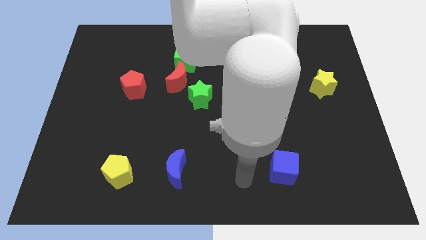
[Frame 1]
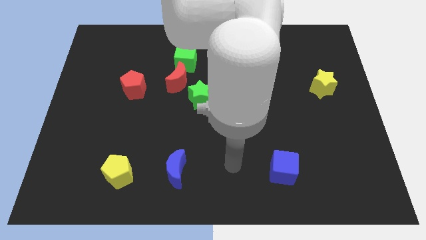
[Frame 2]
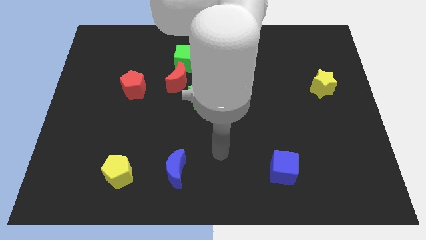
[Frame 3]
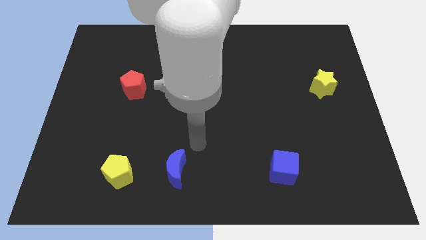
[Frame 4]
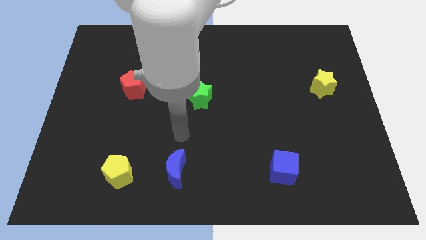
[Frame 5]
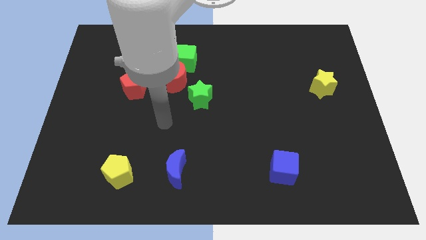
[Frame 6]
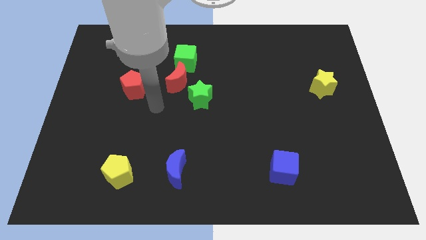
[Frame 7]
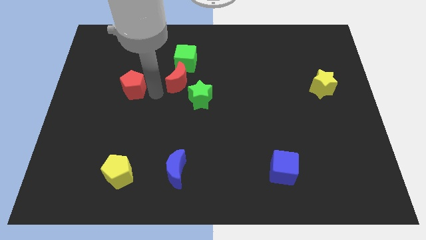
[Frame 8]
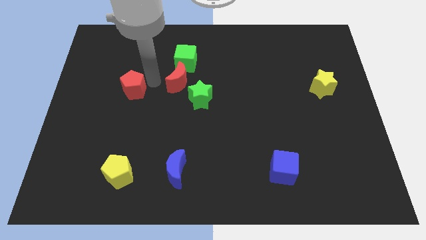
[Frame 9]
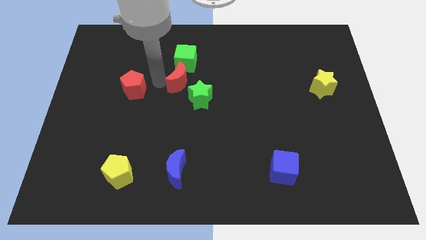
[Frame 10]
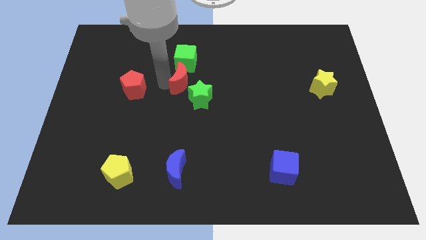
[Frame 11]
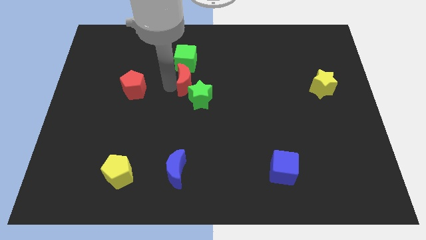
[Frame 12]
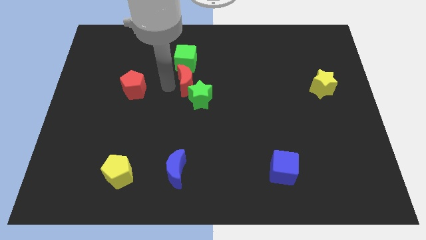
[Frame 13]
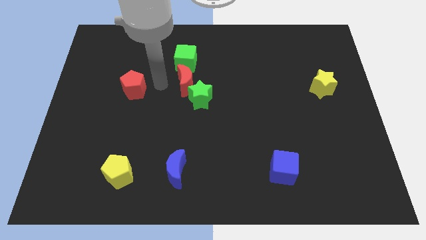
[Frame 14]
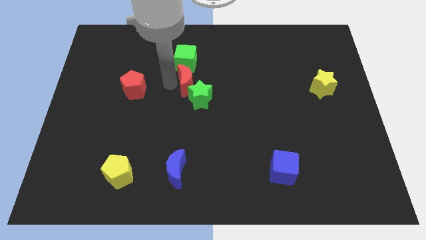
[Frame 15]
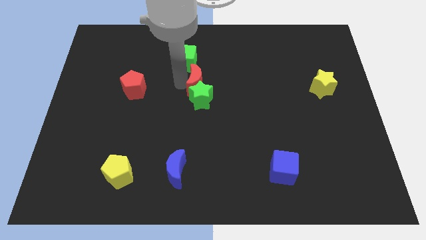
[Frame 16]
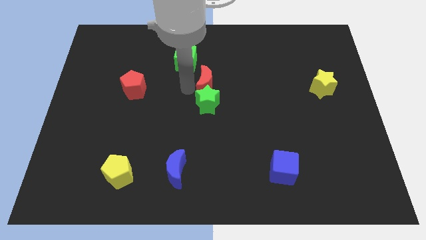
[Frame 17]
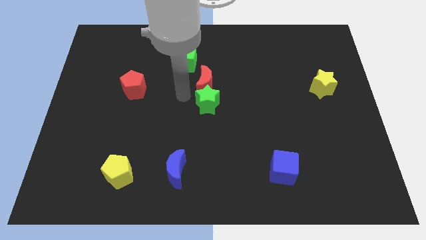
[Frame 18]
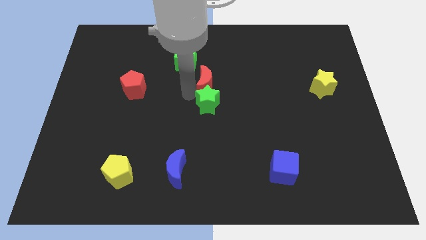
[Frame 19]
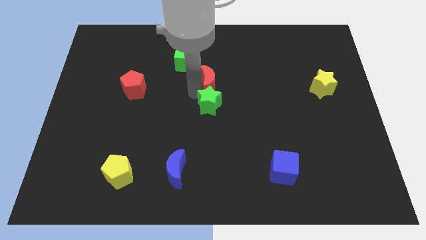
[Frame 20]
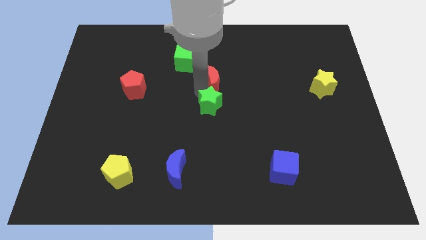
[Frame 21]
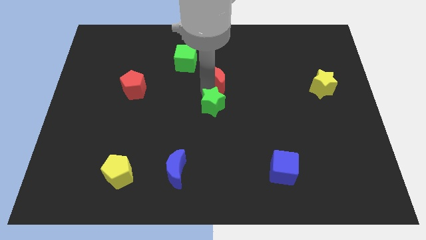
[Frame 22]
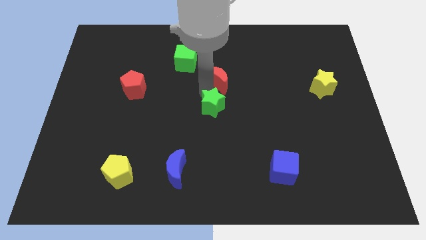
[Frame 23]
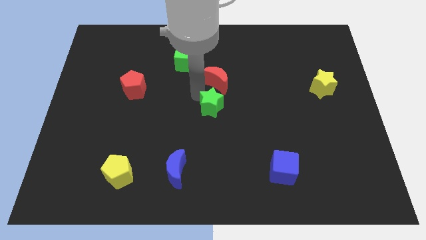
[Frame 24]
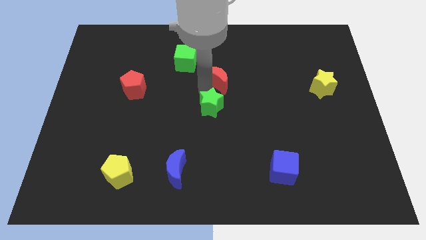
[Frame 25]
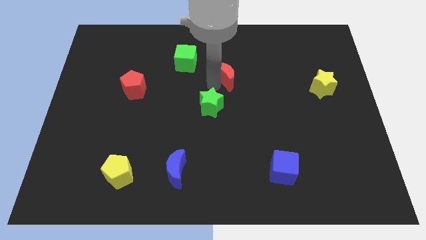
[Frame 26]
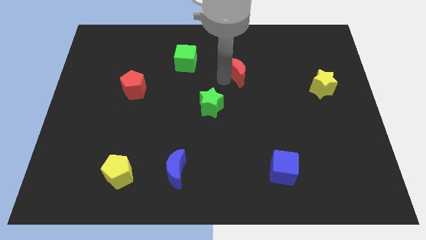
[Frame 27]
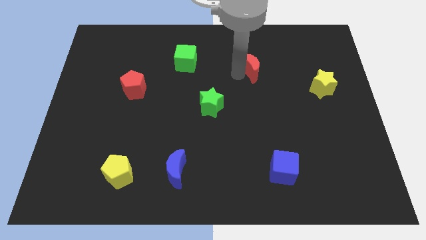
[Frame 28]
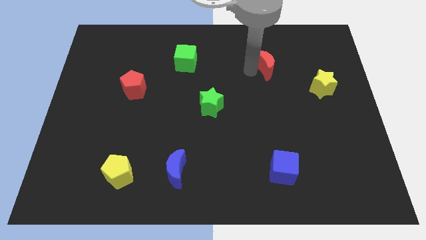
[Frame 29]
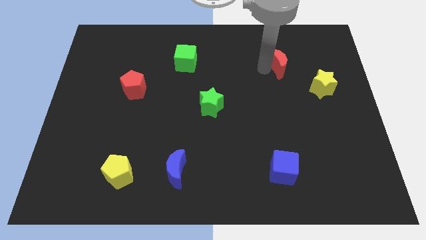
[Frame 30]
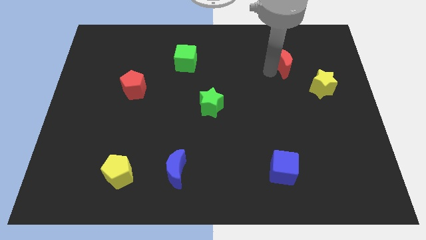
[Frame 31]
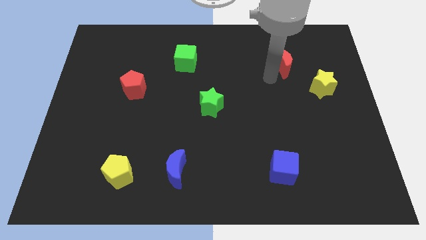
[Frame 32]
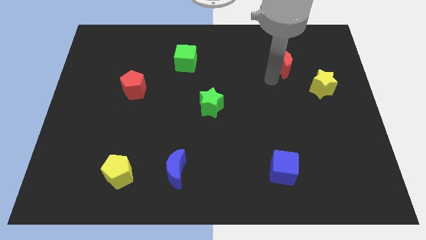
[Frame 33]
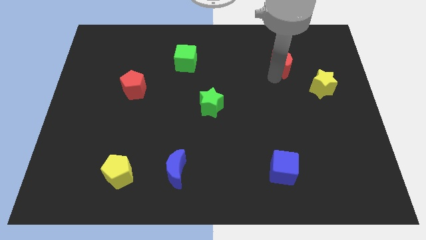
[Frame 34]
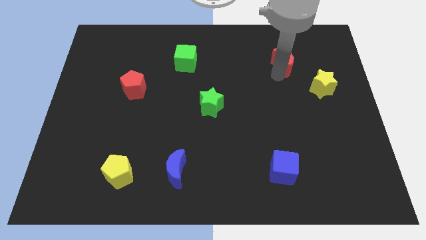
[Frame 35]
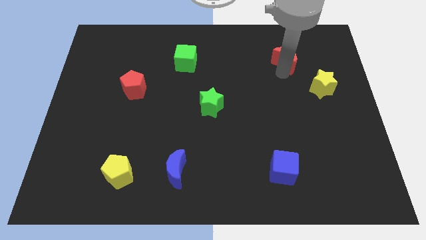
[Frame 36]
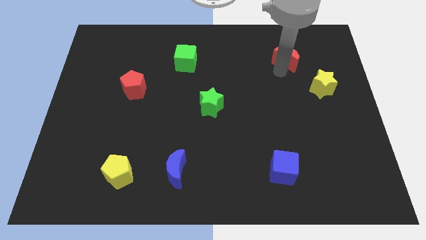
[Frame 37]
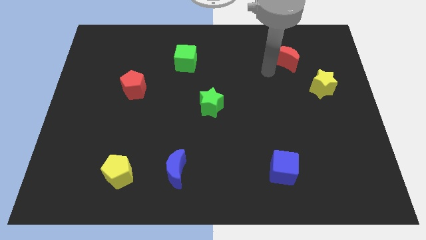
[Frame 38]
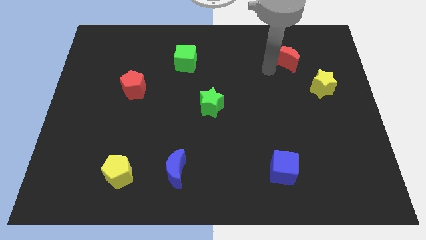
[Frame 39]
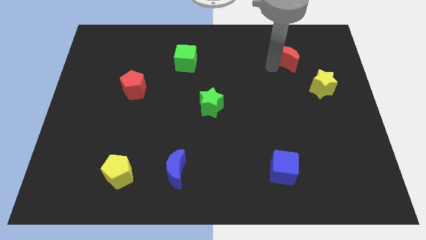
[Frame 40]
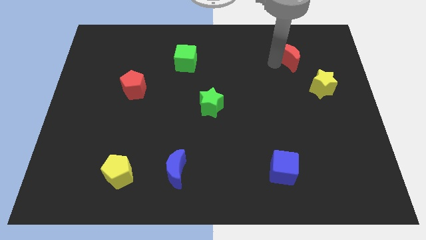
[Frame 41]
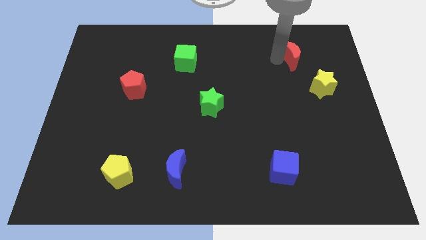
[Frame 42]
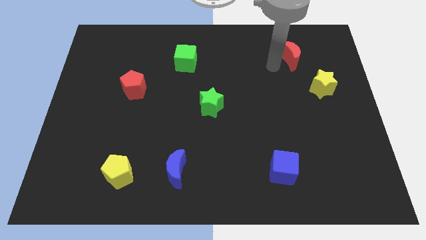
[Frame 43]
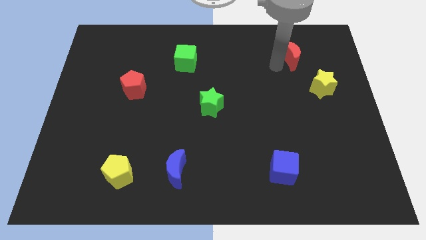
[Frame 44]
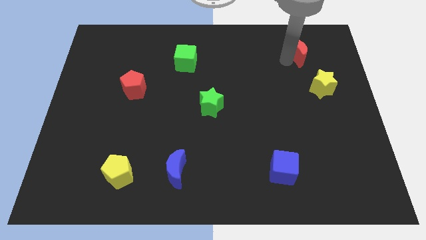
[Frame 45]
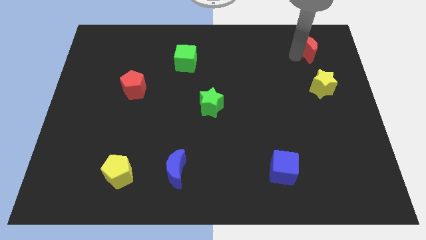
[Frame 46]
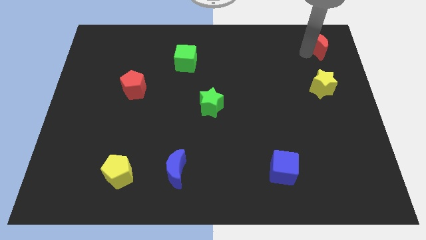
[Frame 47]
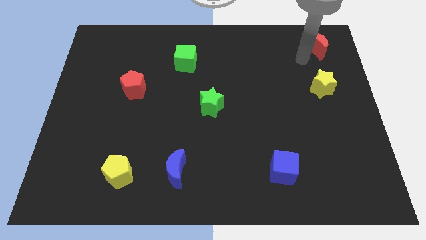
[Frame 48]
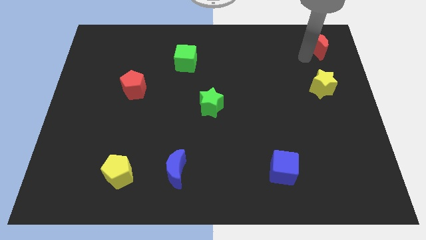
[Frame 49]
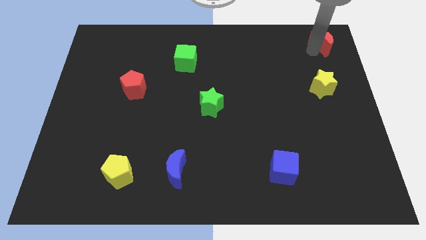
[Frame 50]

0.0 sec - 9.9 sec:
push the red moon to the top right corner

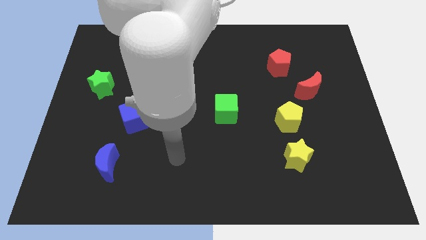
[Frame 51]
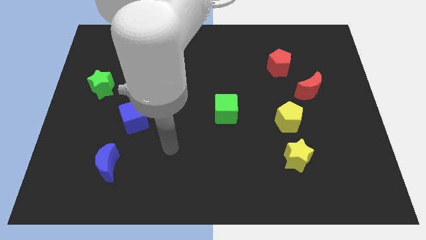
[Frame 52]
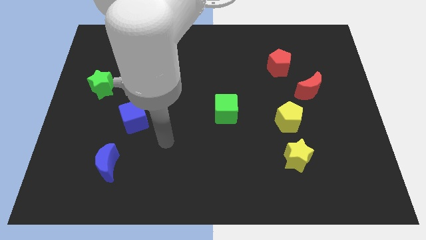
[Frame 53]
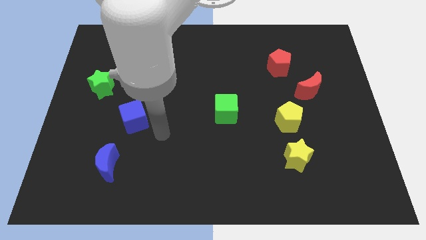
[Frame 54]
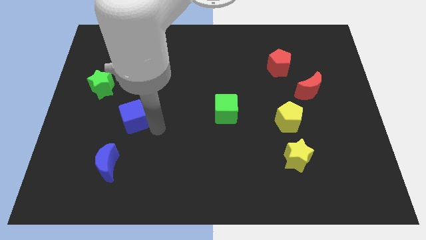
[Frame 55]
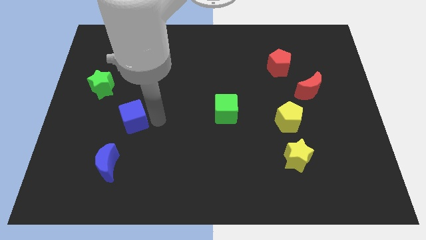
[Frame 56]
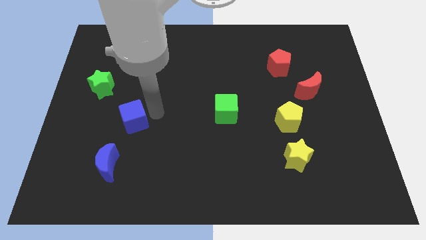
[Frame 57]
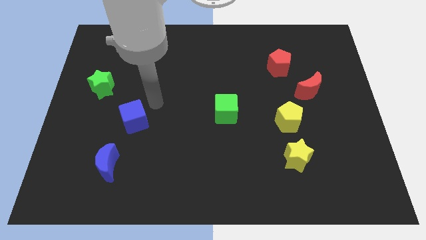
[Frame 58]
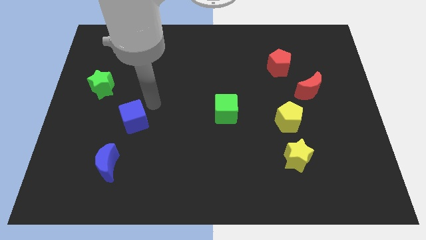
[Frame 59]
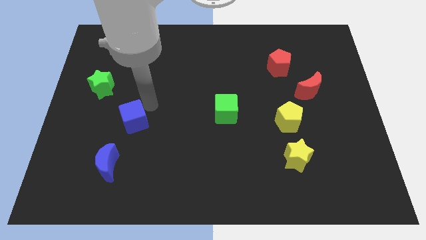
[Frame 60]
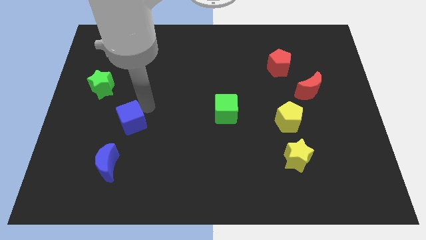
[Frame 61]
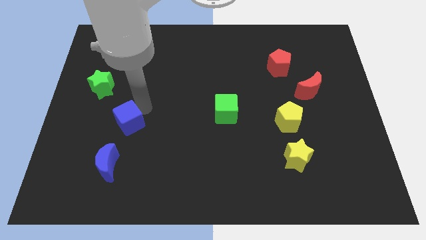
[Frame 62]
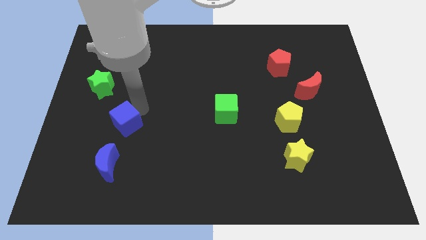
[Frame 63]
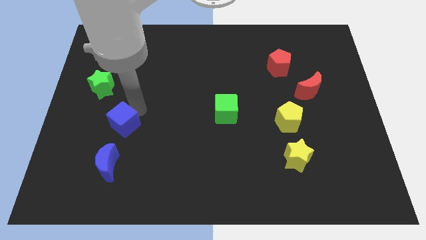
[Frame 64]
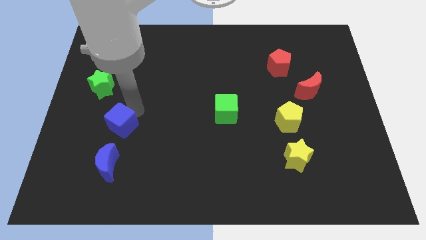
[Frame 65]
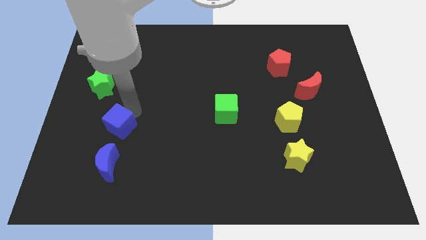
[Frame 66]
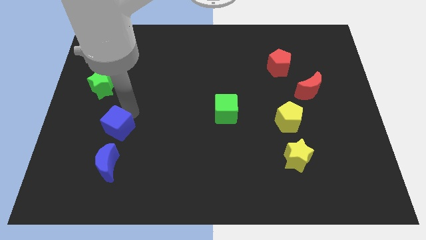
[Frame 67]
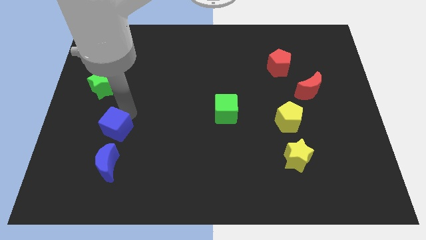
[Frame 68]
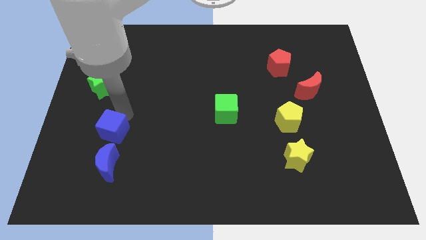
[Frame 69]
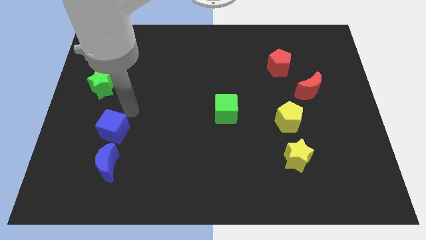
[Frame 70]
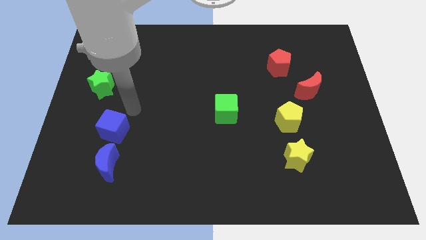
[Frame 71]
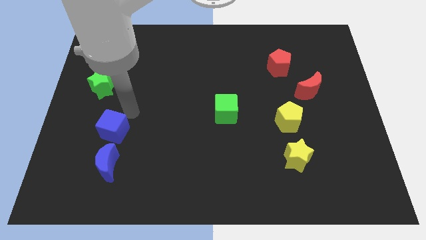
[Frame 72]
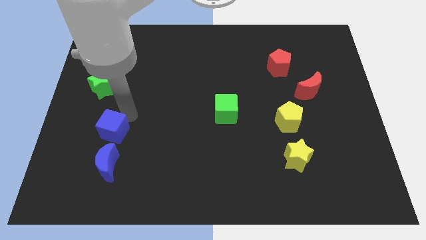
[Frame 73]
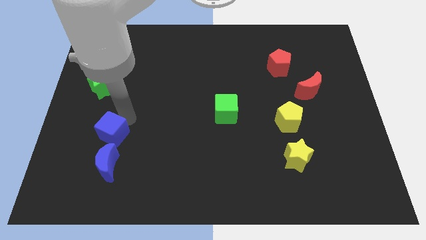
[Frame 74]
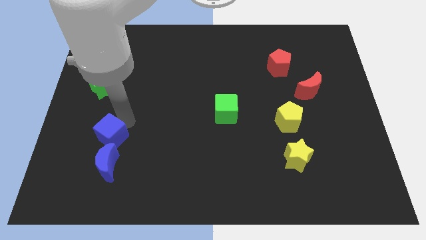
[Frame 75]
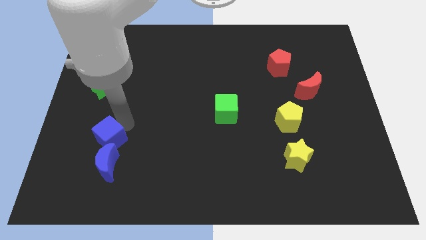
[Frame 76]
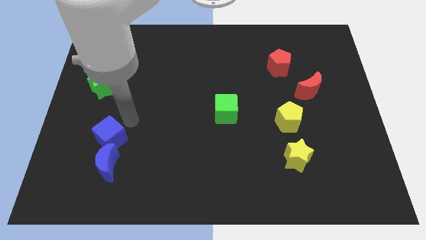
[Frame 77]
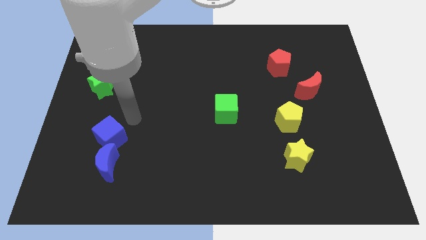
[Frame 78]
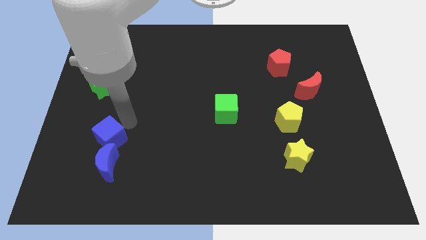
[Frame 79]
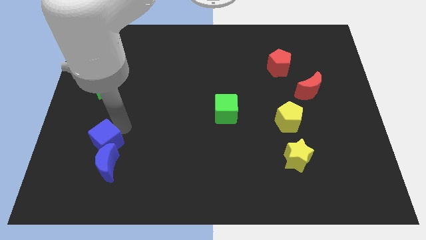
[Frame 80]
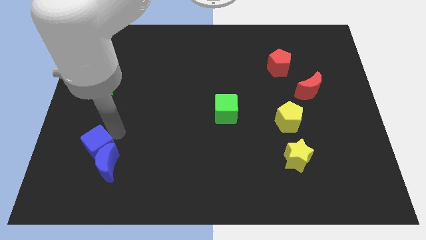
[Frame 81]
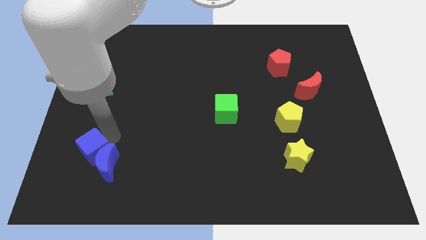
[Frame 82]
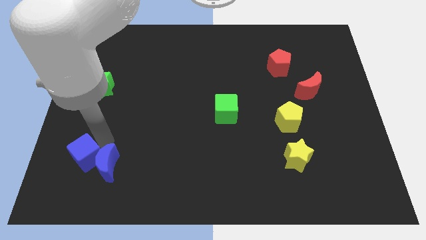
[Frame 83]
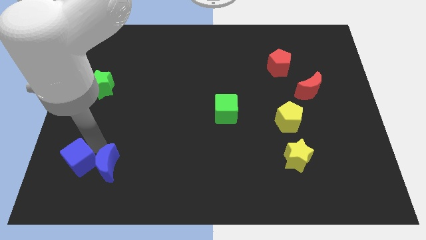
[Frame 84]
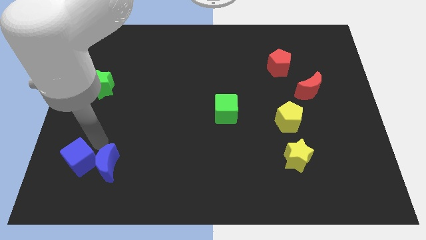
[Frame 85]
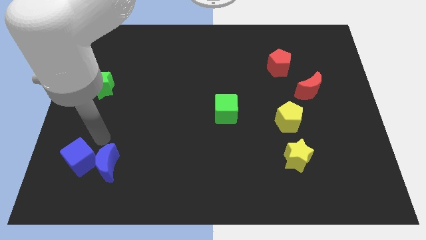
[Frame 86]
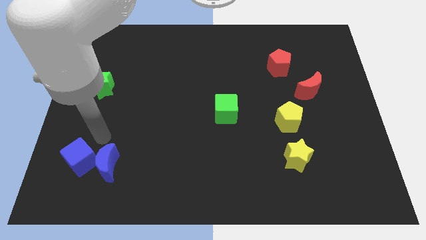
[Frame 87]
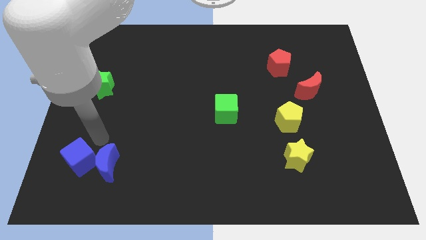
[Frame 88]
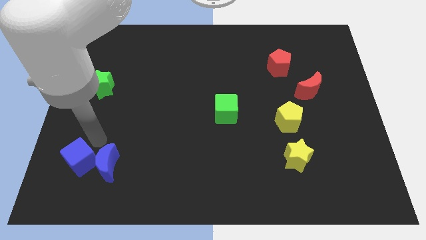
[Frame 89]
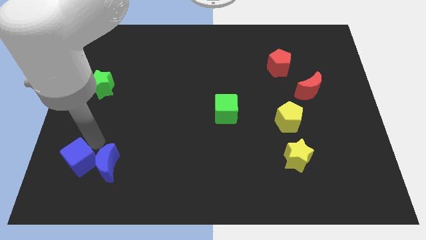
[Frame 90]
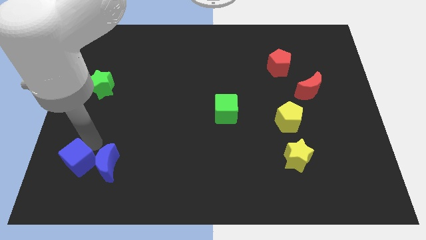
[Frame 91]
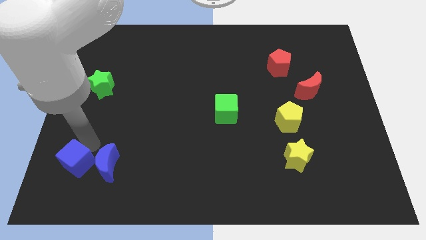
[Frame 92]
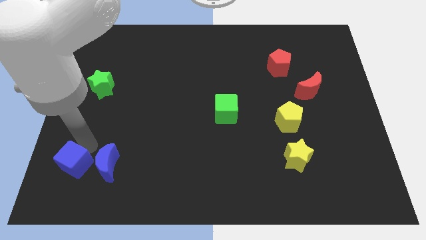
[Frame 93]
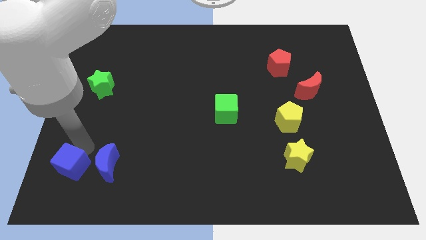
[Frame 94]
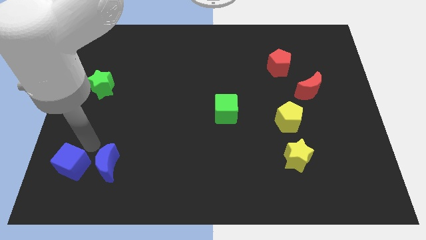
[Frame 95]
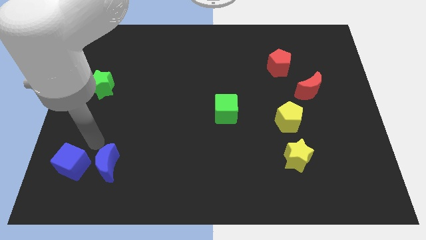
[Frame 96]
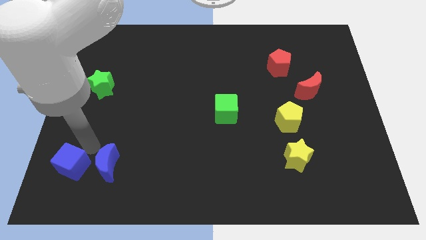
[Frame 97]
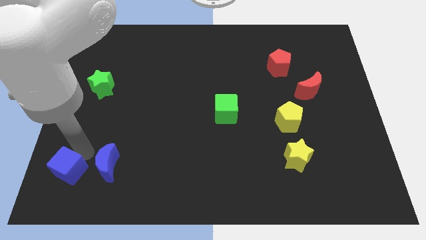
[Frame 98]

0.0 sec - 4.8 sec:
put the blue cube to the lower left corner
